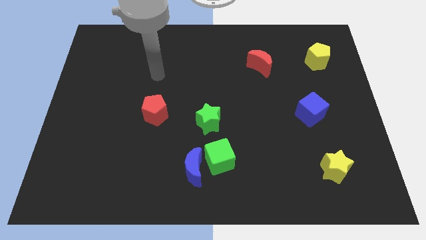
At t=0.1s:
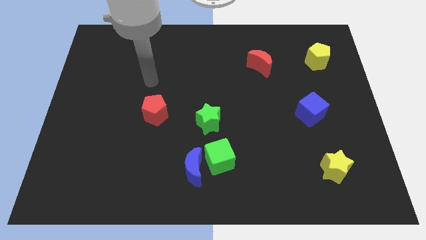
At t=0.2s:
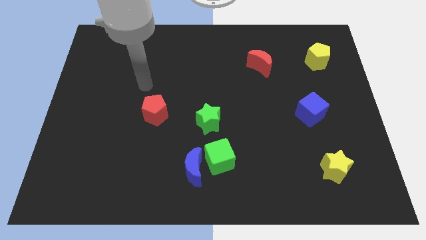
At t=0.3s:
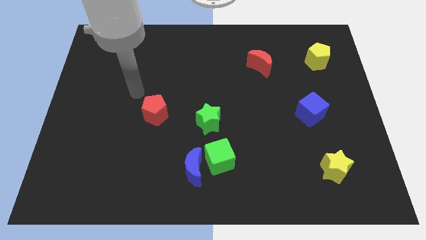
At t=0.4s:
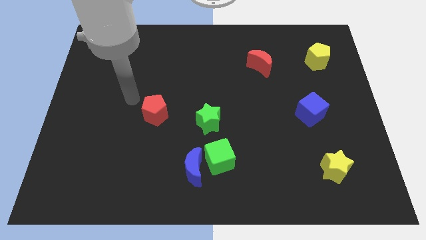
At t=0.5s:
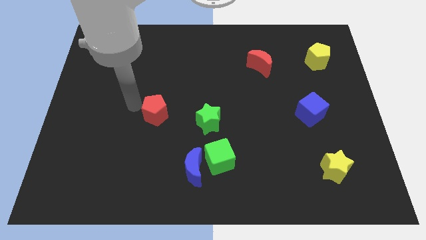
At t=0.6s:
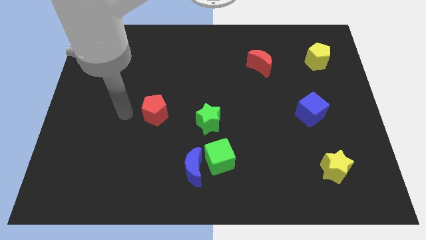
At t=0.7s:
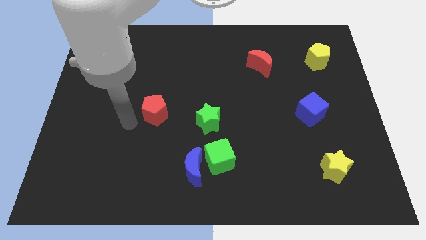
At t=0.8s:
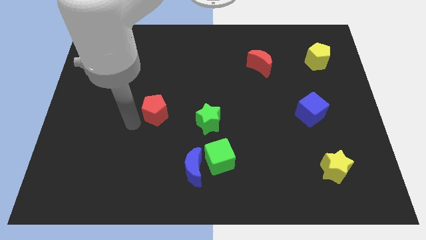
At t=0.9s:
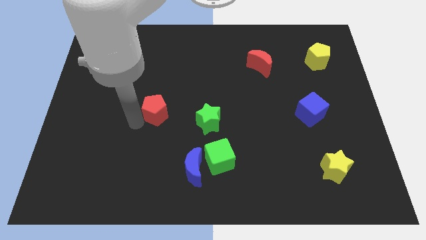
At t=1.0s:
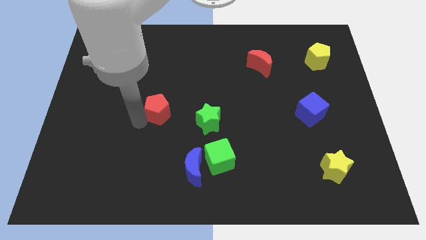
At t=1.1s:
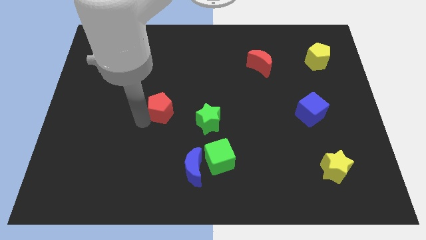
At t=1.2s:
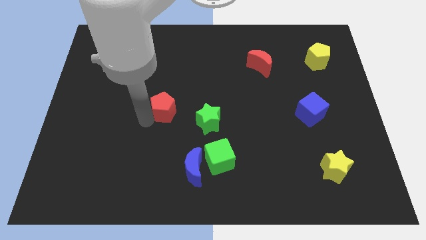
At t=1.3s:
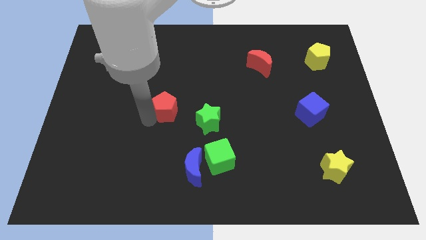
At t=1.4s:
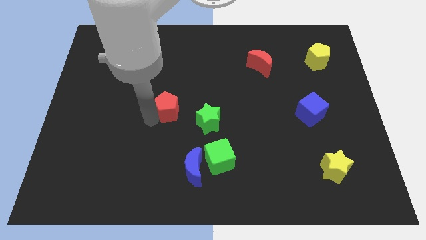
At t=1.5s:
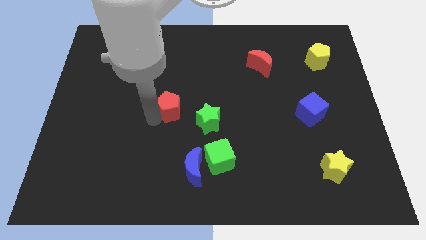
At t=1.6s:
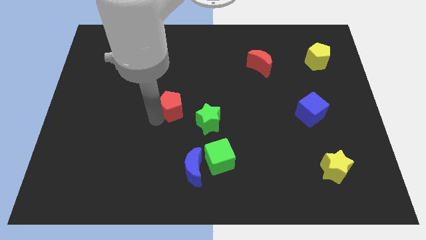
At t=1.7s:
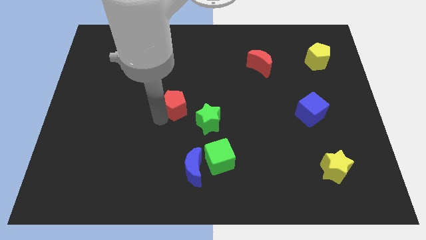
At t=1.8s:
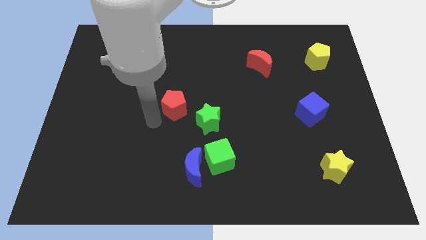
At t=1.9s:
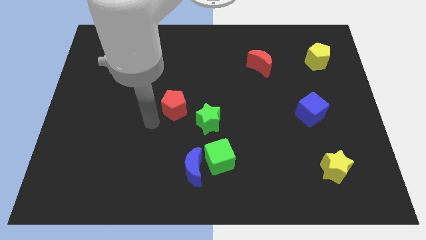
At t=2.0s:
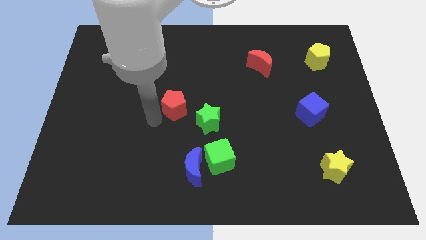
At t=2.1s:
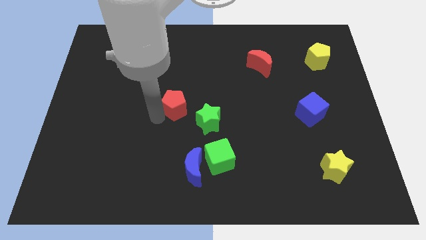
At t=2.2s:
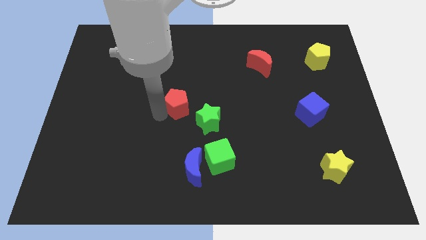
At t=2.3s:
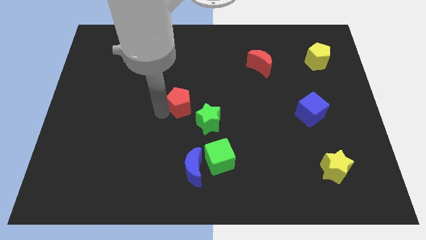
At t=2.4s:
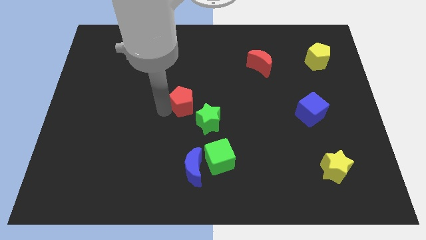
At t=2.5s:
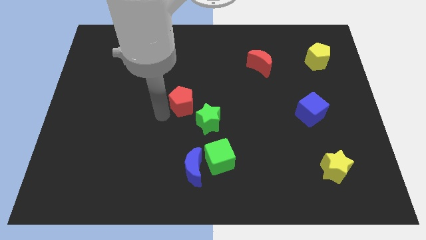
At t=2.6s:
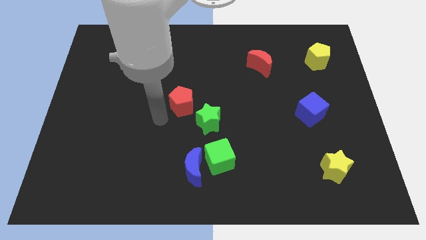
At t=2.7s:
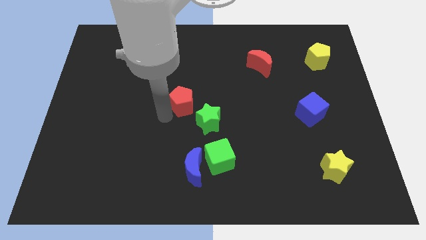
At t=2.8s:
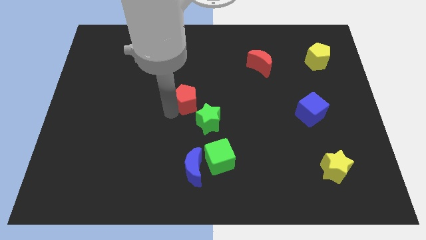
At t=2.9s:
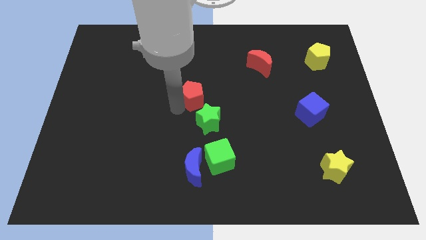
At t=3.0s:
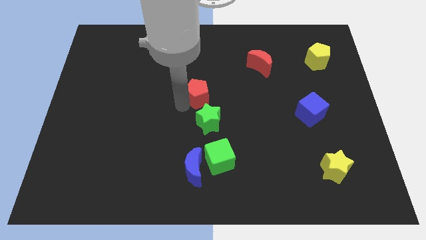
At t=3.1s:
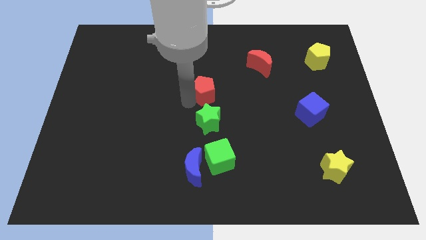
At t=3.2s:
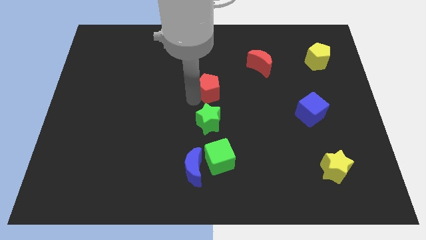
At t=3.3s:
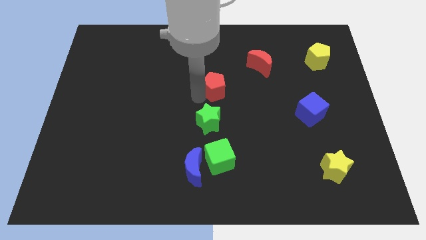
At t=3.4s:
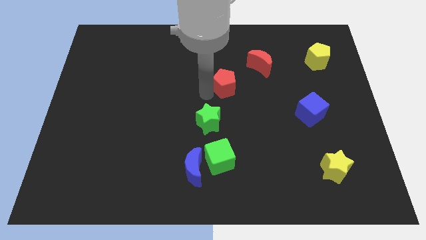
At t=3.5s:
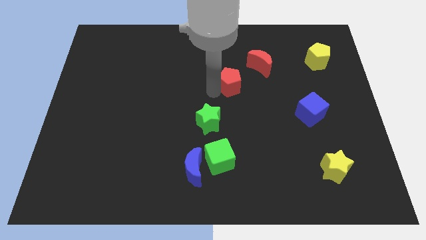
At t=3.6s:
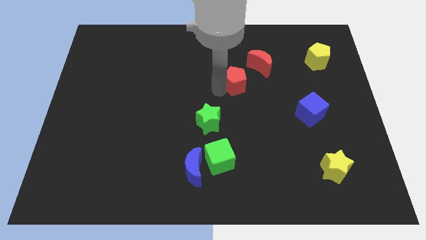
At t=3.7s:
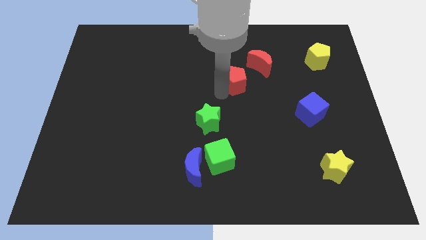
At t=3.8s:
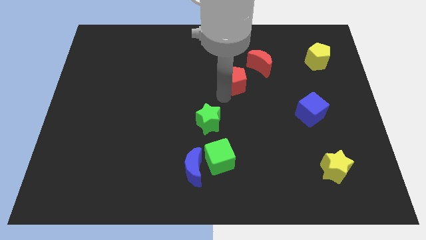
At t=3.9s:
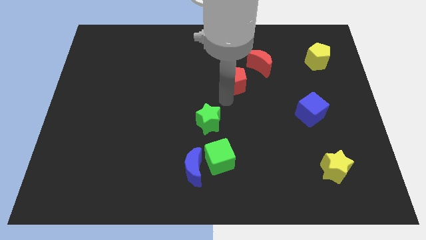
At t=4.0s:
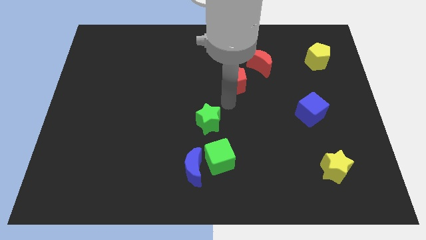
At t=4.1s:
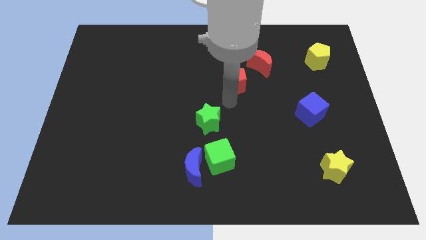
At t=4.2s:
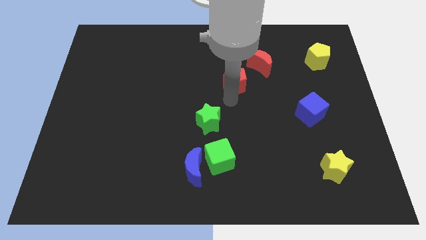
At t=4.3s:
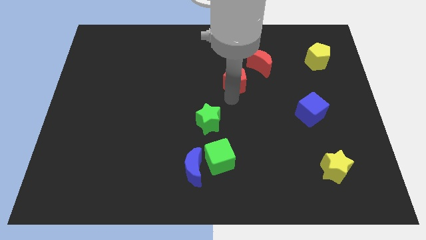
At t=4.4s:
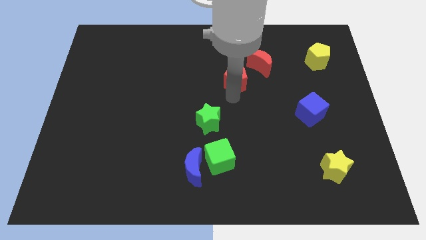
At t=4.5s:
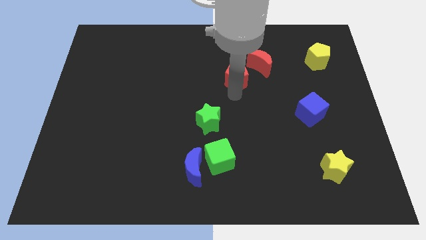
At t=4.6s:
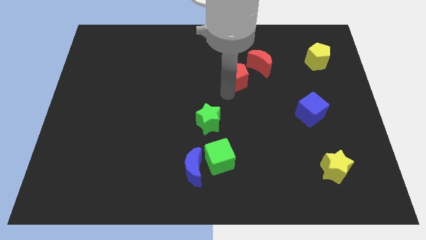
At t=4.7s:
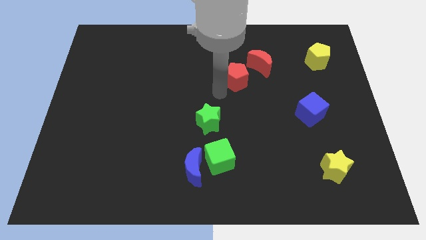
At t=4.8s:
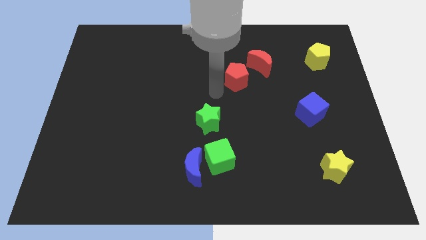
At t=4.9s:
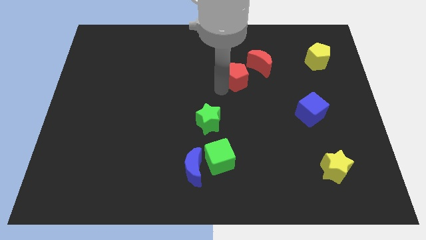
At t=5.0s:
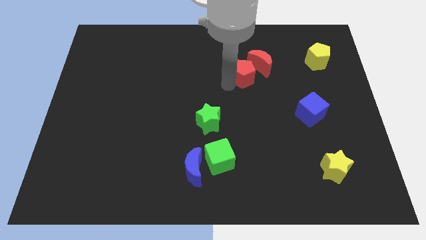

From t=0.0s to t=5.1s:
put the red pentagon next to the red moon

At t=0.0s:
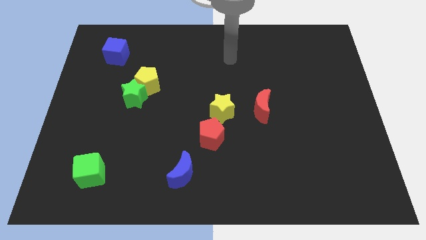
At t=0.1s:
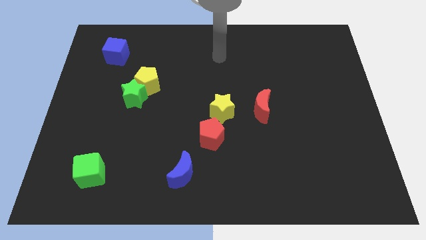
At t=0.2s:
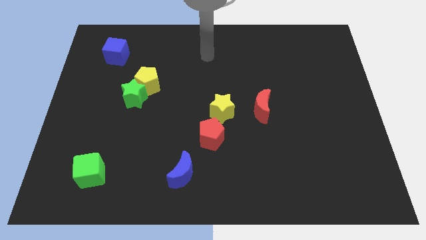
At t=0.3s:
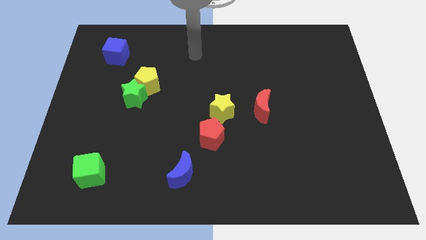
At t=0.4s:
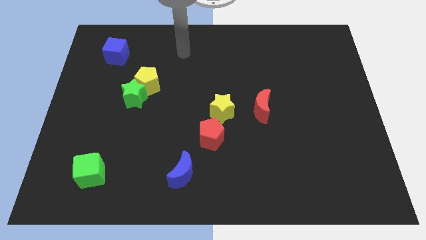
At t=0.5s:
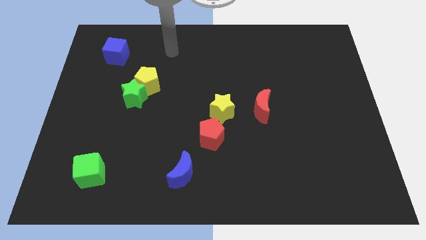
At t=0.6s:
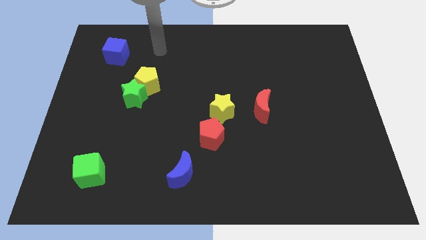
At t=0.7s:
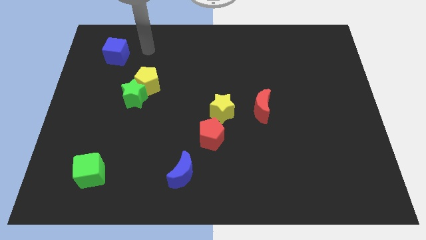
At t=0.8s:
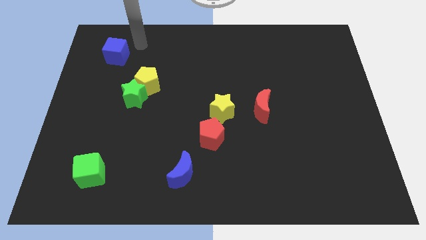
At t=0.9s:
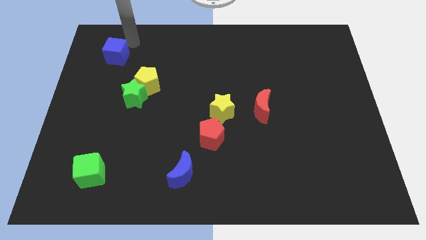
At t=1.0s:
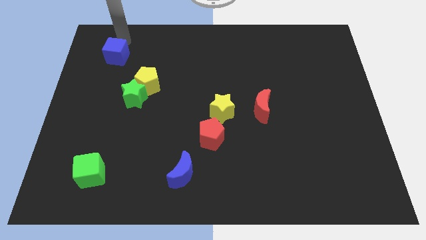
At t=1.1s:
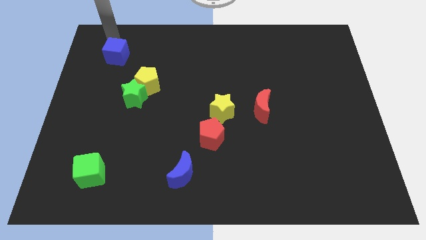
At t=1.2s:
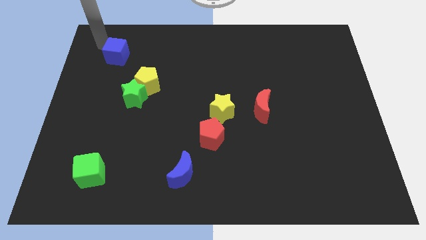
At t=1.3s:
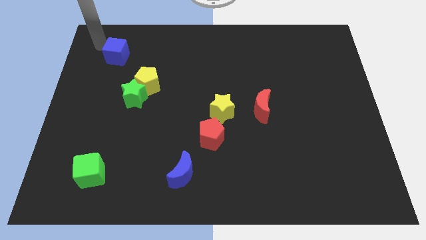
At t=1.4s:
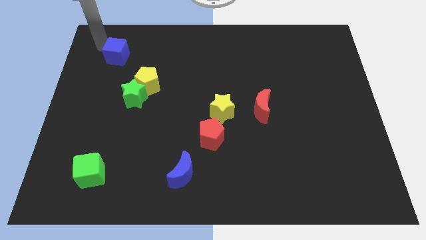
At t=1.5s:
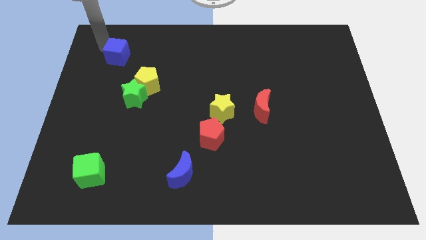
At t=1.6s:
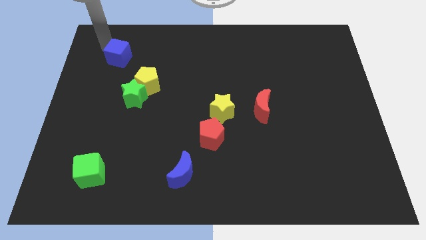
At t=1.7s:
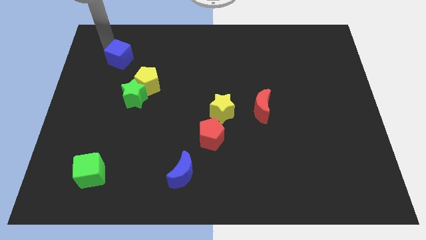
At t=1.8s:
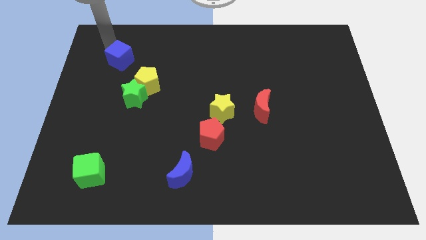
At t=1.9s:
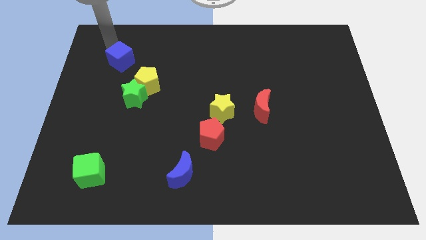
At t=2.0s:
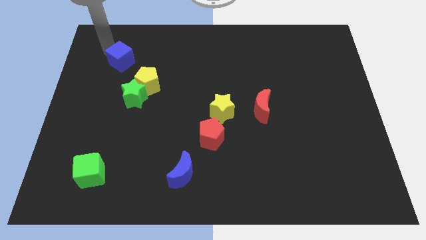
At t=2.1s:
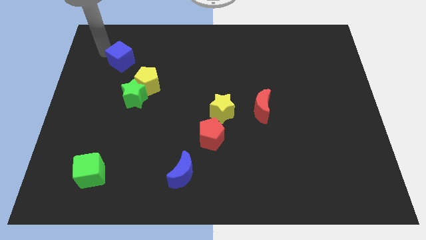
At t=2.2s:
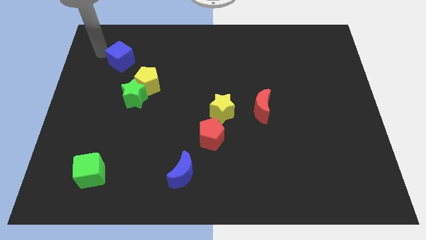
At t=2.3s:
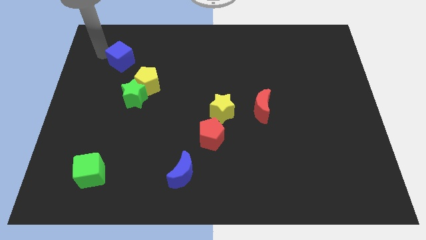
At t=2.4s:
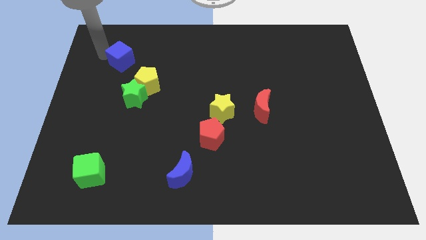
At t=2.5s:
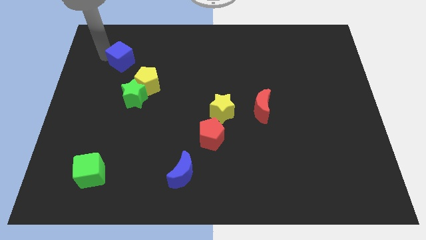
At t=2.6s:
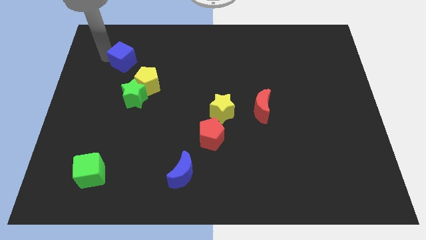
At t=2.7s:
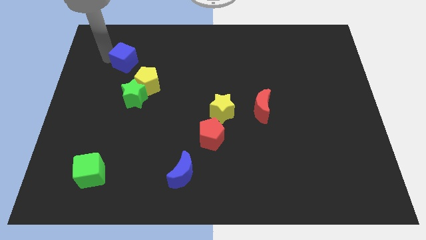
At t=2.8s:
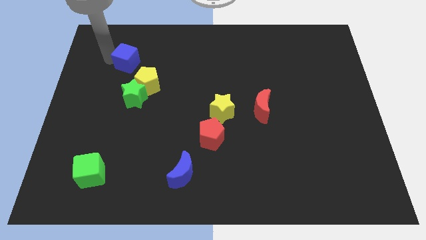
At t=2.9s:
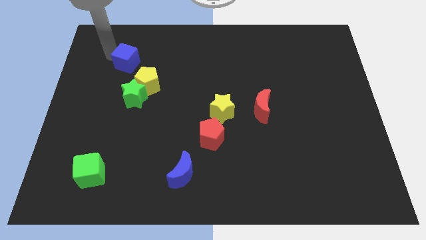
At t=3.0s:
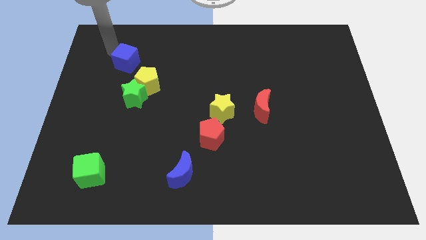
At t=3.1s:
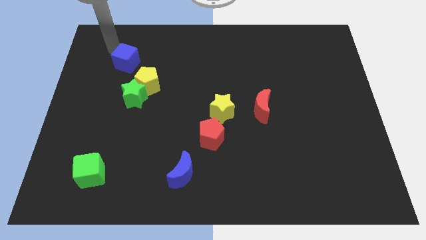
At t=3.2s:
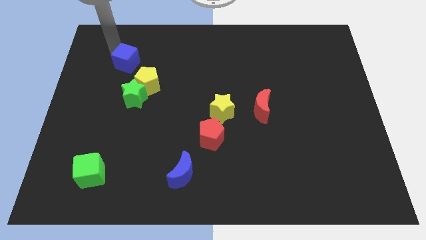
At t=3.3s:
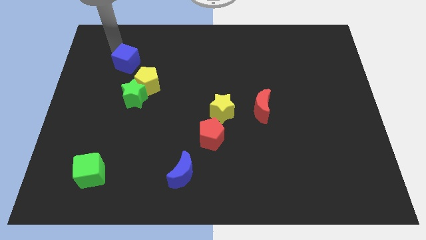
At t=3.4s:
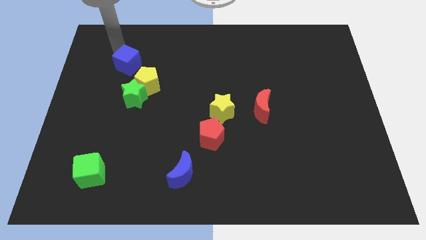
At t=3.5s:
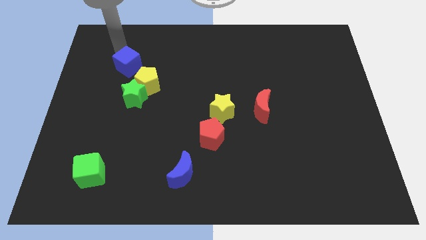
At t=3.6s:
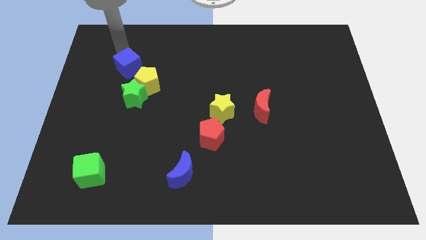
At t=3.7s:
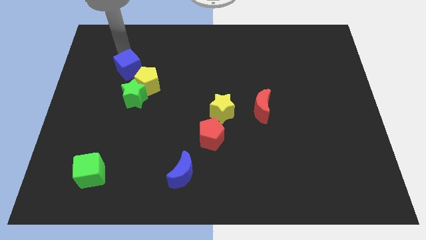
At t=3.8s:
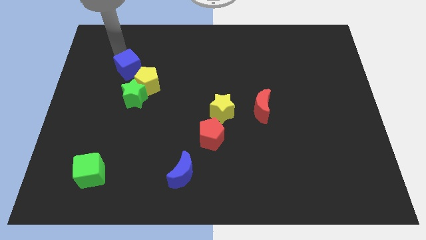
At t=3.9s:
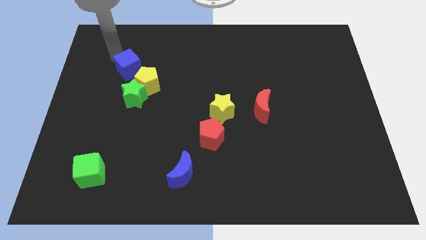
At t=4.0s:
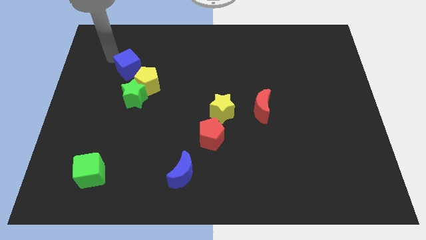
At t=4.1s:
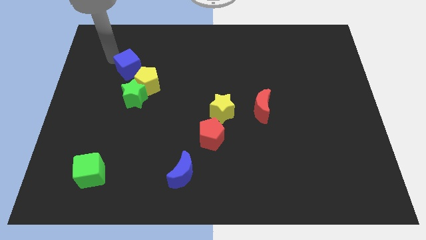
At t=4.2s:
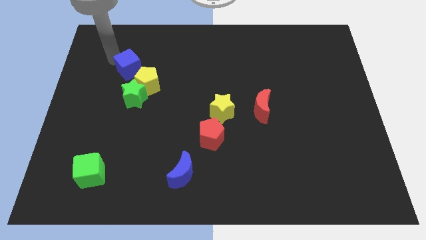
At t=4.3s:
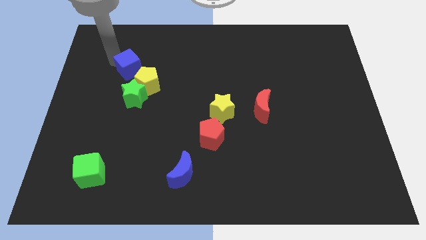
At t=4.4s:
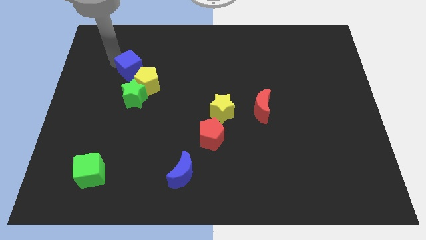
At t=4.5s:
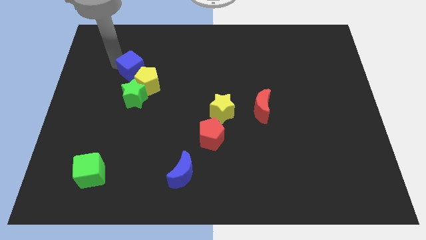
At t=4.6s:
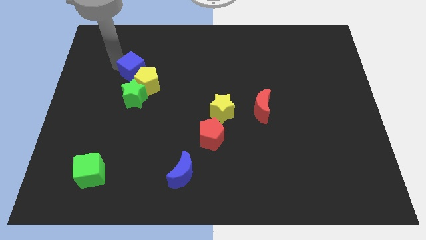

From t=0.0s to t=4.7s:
put the blue cube towards the yellow pentagon
